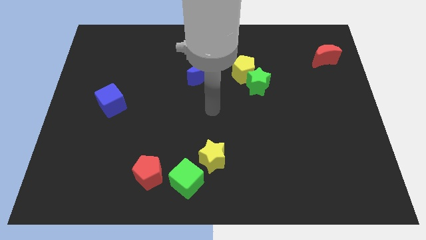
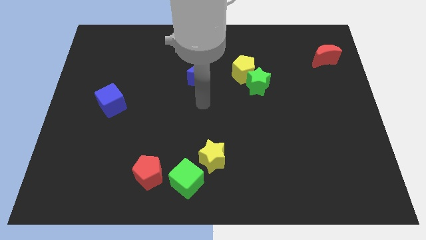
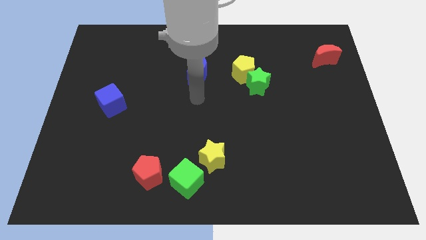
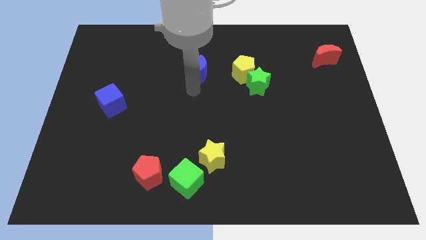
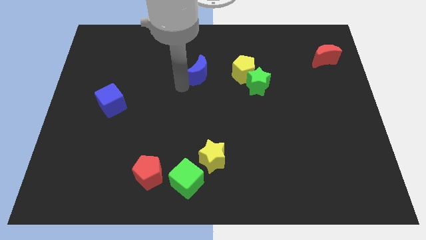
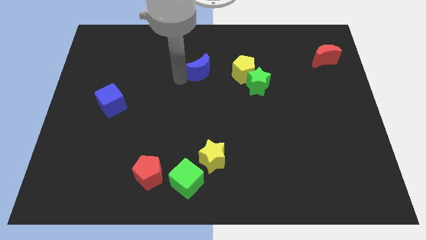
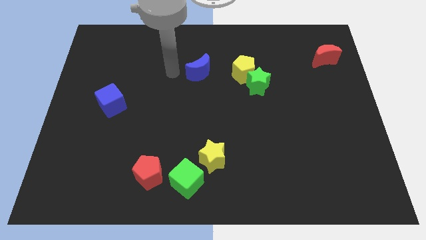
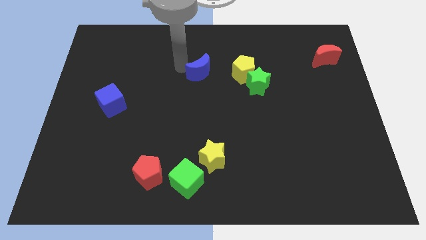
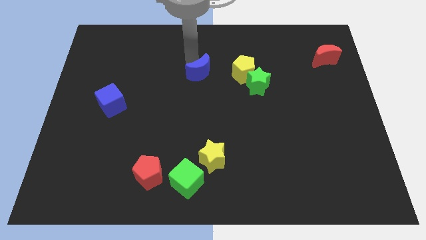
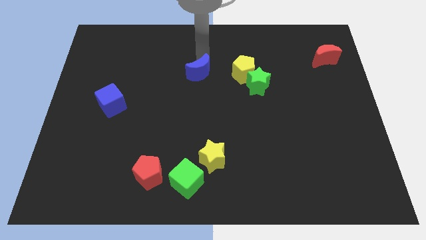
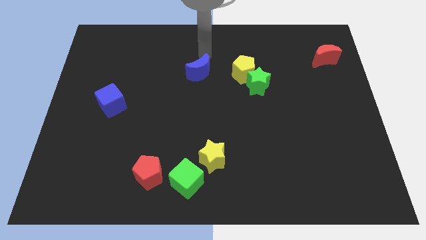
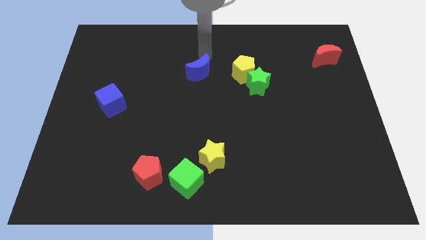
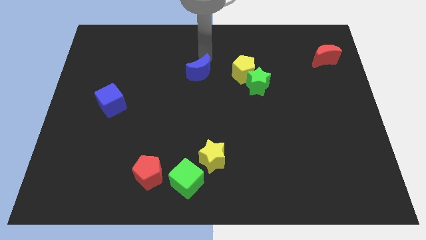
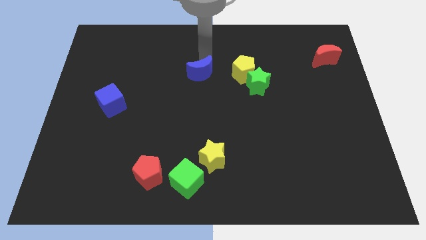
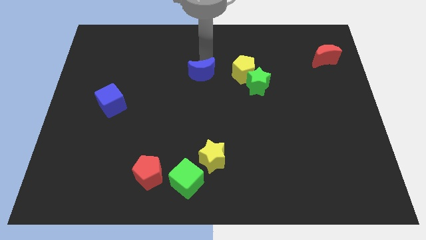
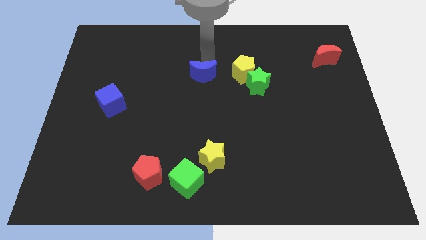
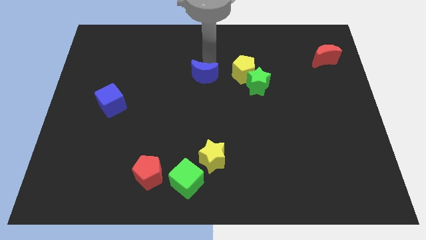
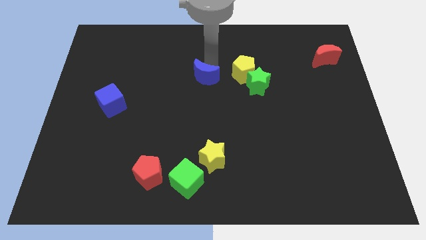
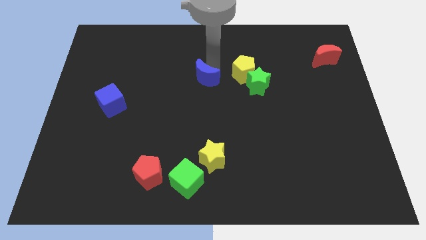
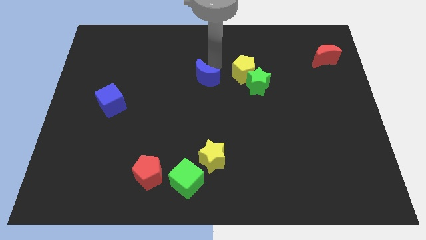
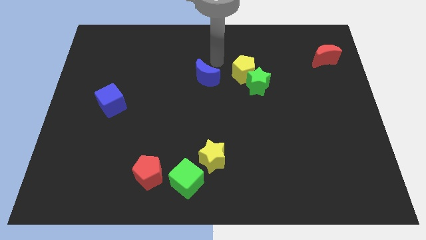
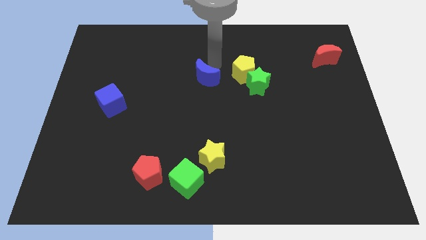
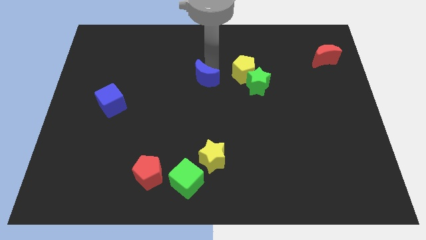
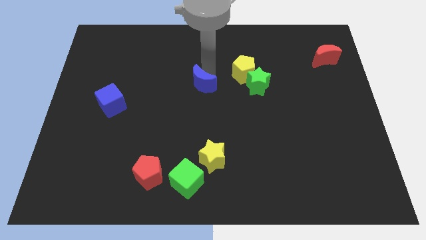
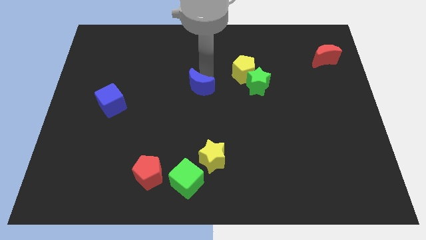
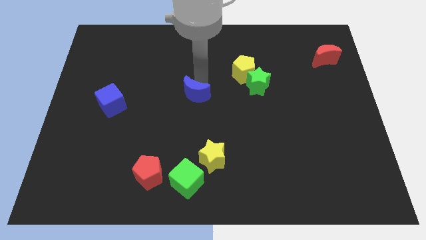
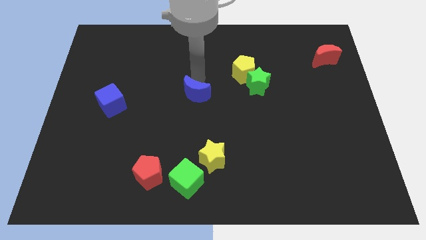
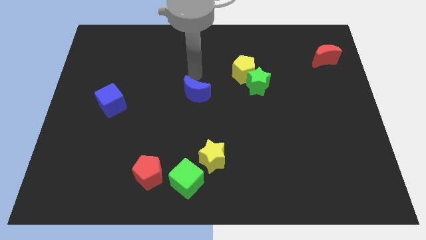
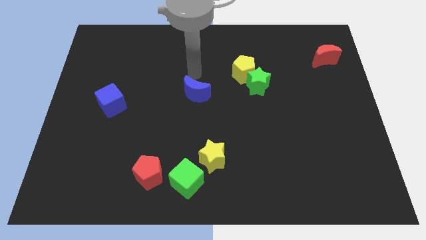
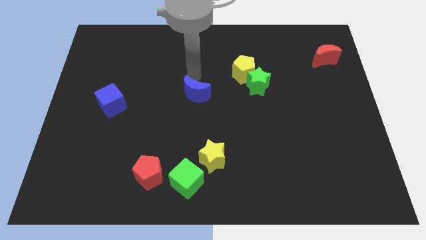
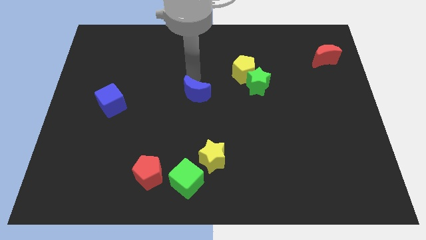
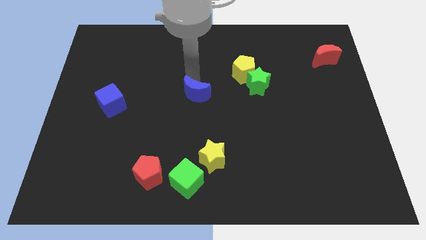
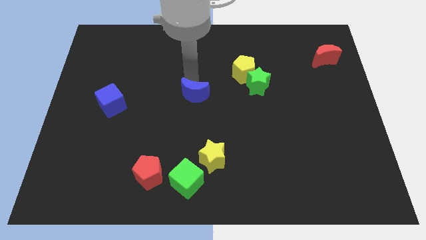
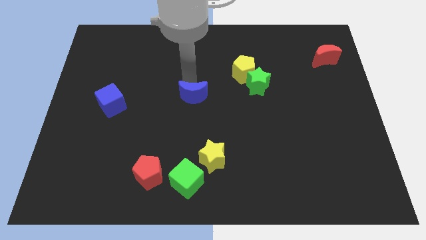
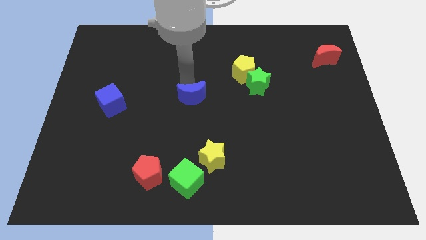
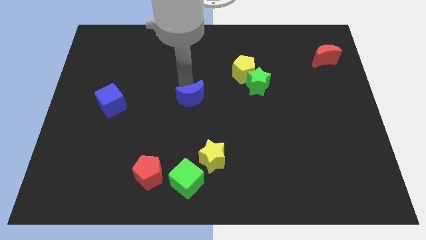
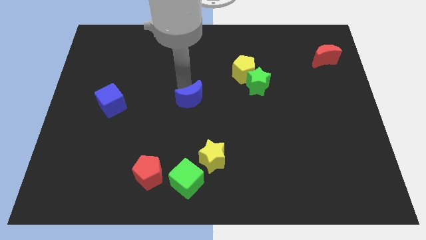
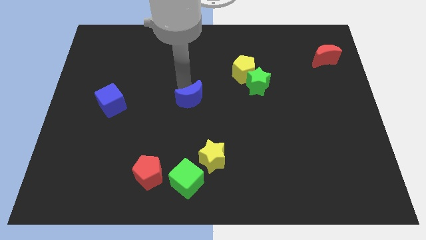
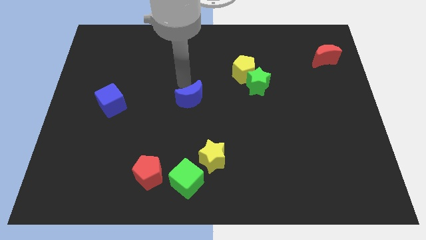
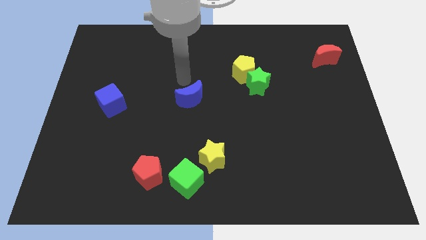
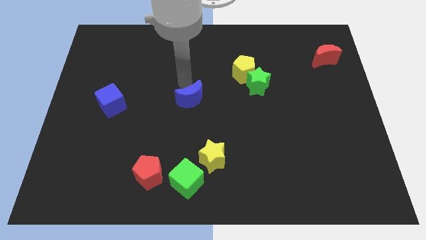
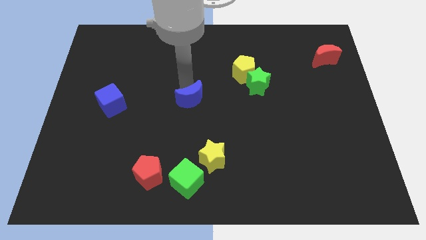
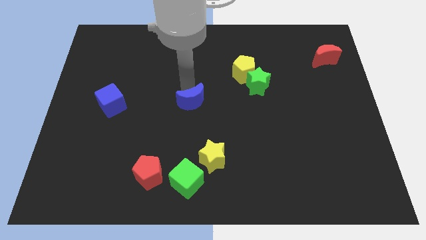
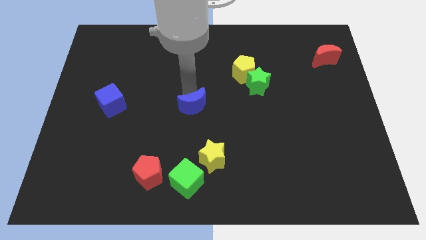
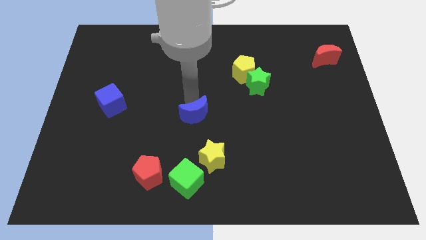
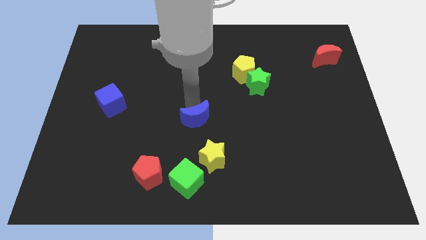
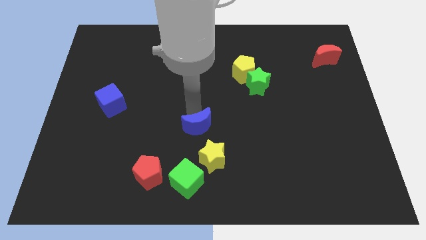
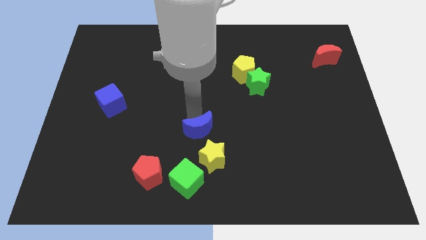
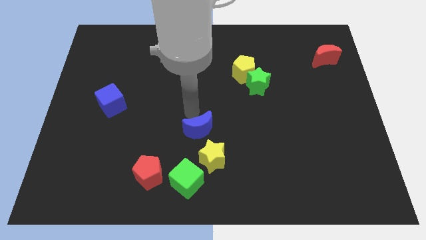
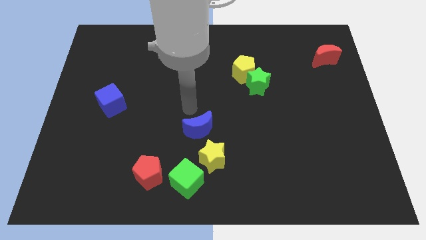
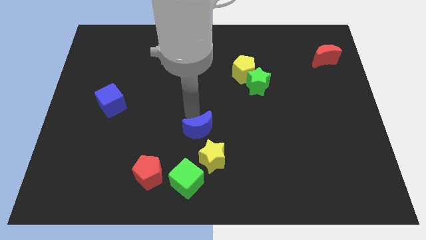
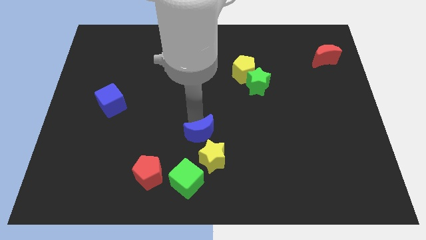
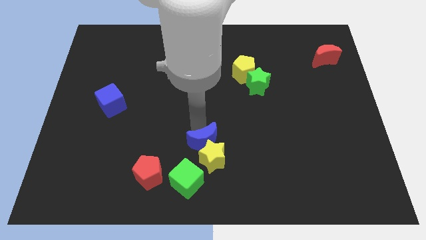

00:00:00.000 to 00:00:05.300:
move the blue moon to the yellow star

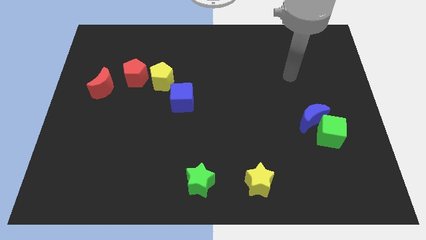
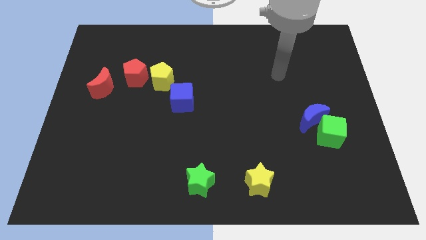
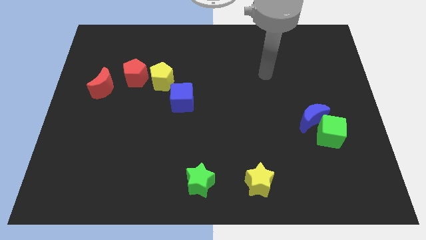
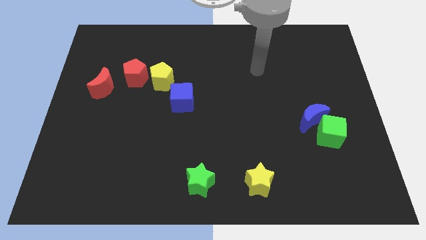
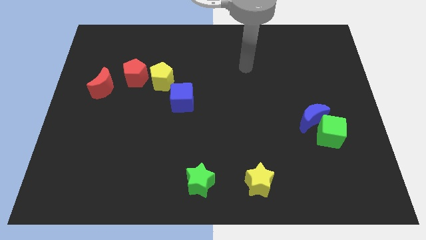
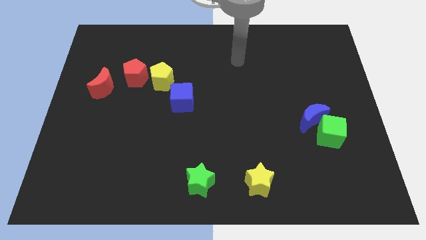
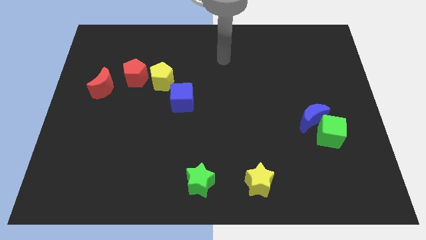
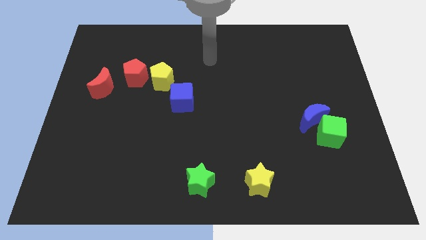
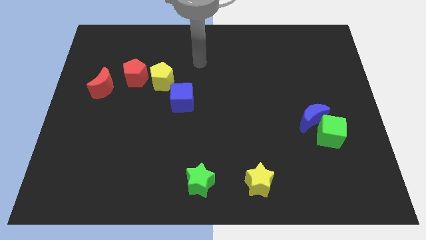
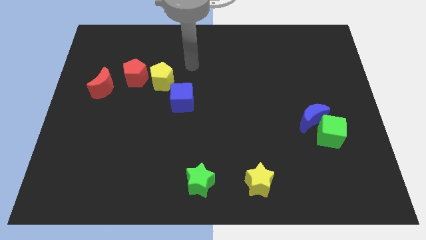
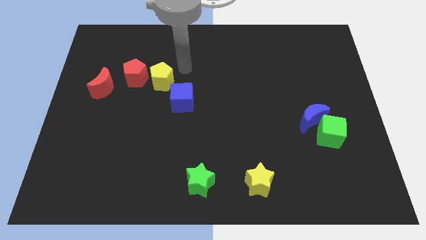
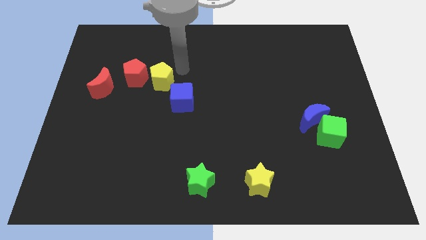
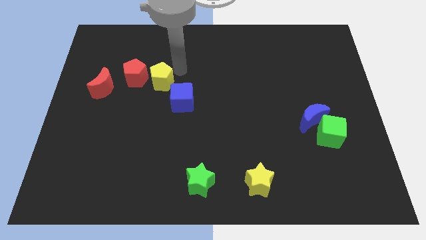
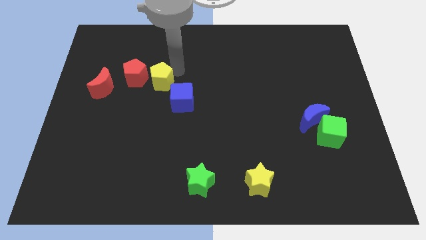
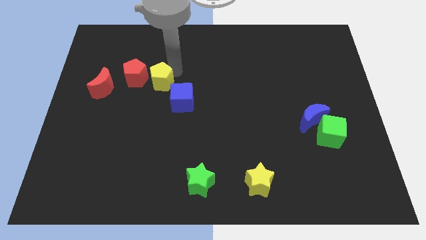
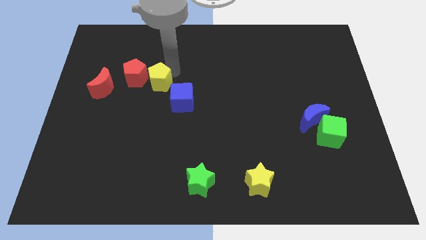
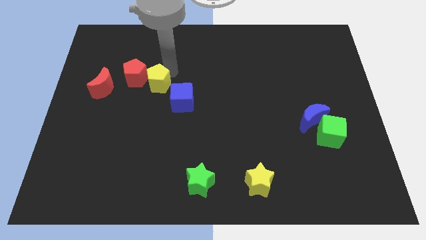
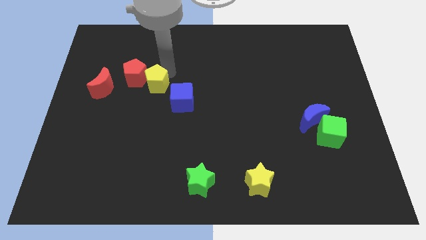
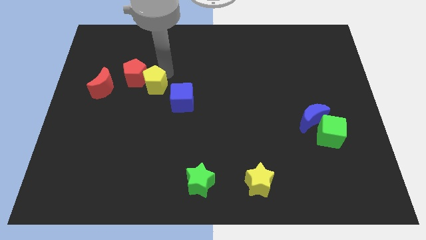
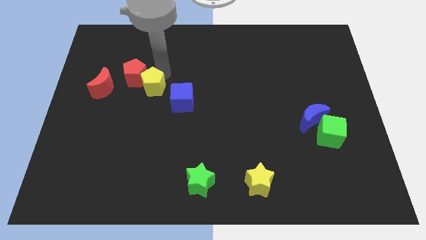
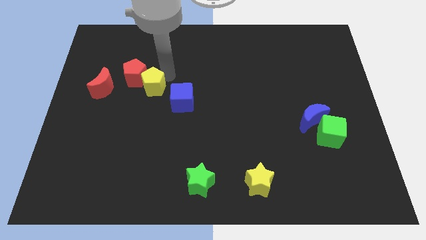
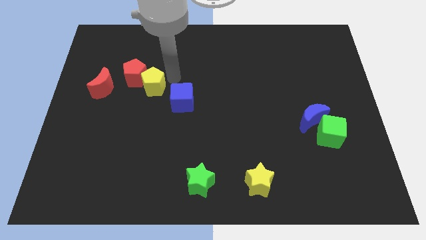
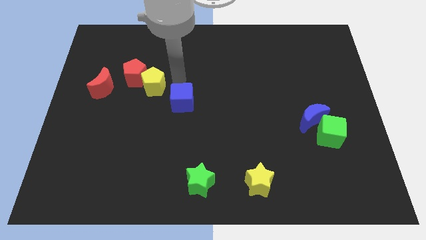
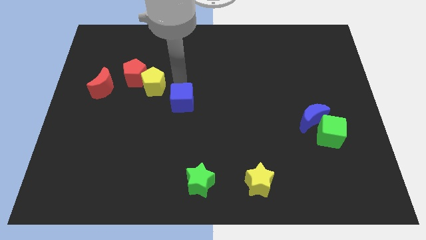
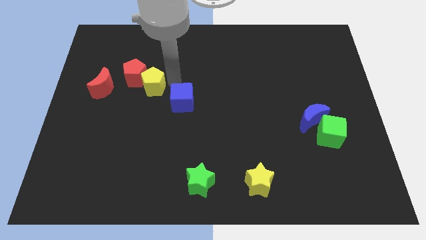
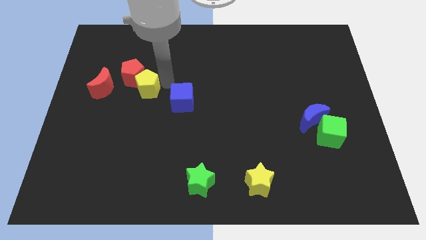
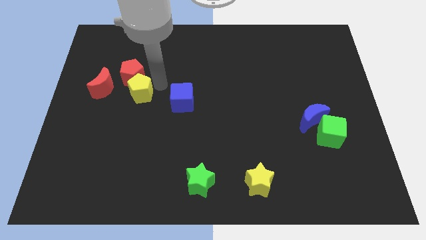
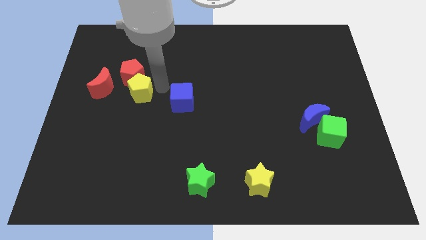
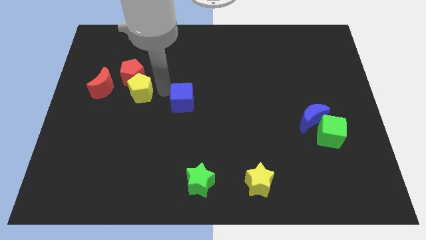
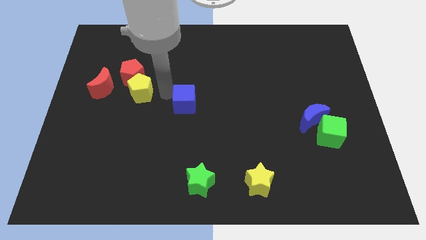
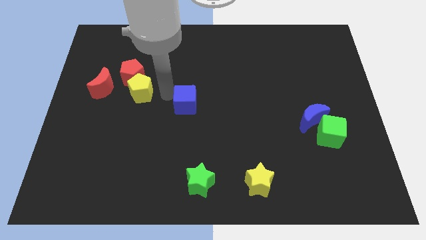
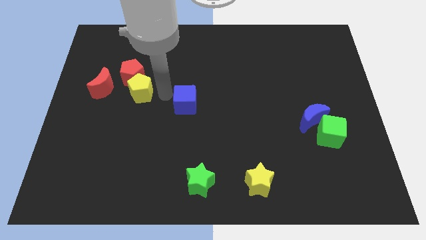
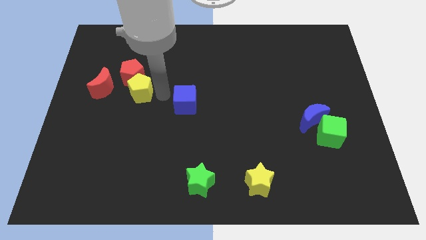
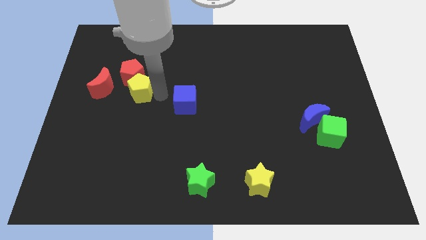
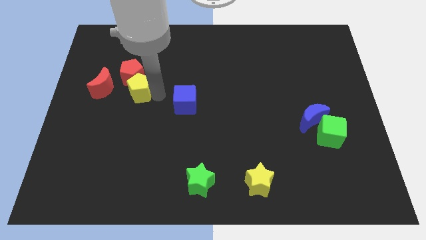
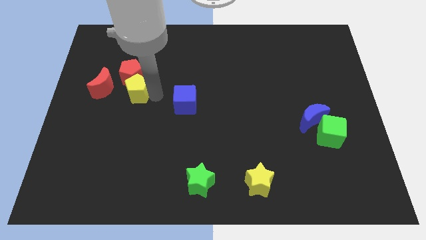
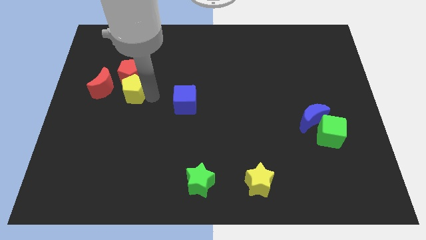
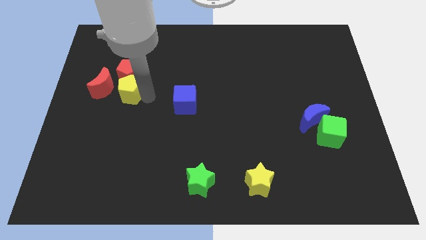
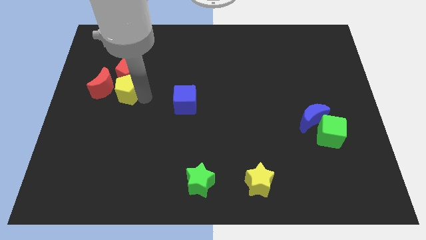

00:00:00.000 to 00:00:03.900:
put the yellow pentagon next to the red moon
